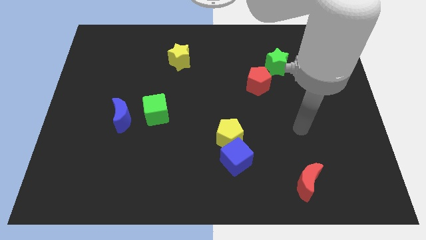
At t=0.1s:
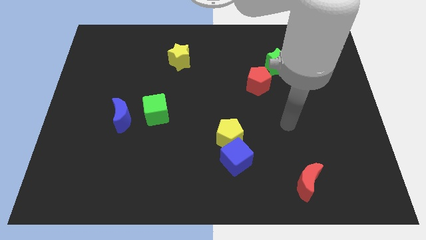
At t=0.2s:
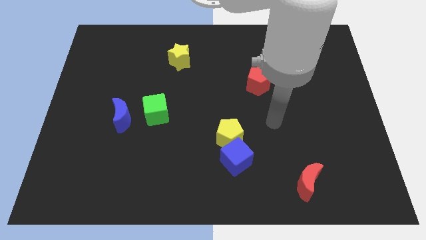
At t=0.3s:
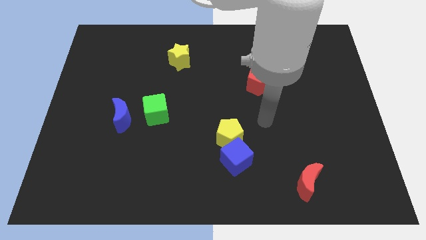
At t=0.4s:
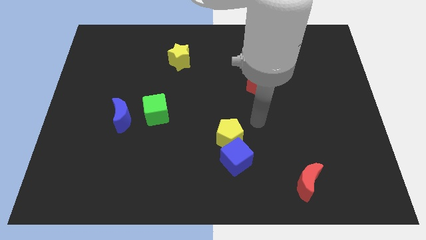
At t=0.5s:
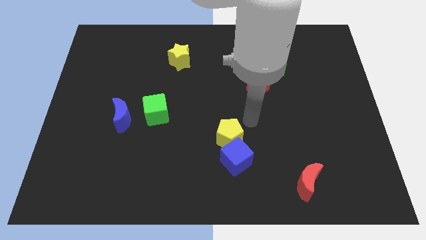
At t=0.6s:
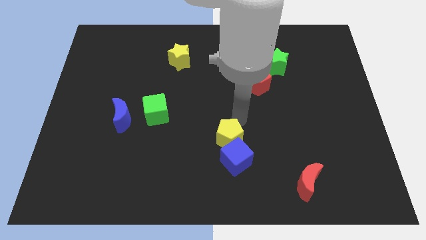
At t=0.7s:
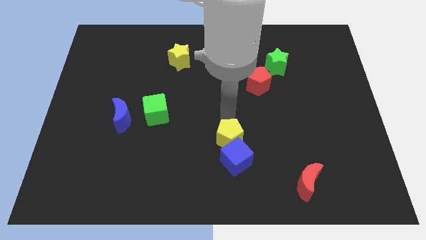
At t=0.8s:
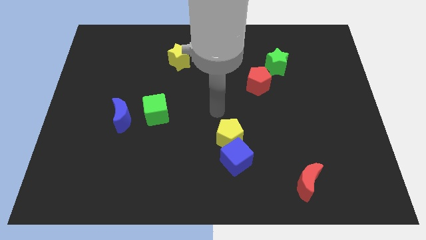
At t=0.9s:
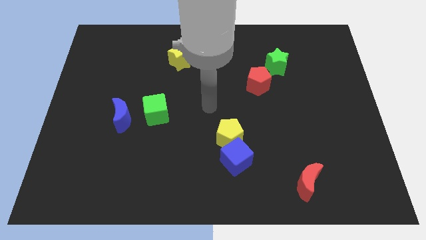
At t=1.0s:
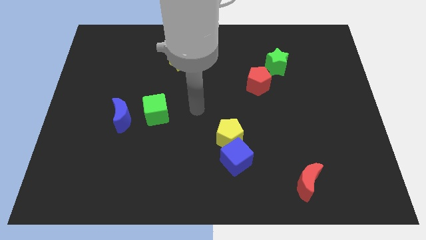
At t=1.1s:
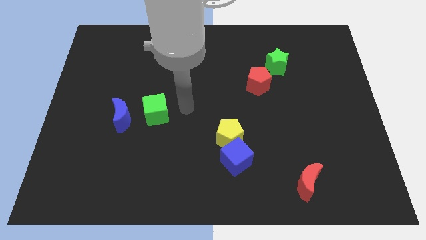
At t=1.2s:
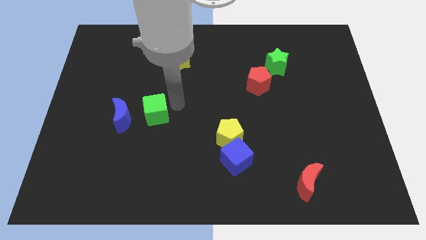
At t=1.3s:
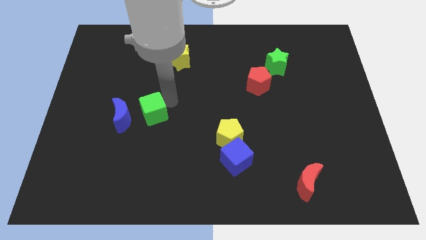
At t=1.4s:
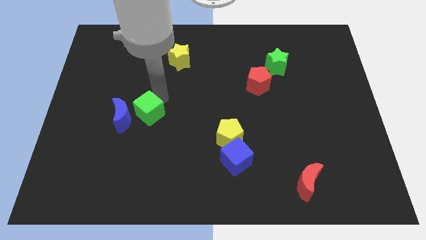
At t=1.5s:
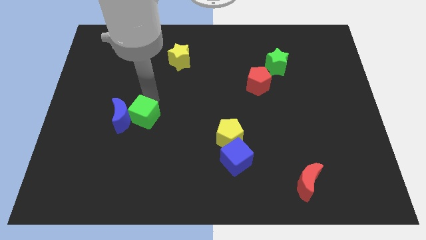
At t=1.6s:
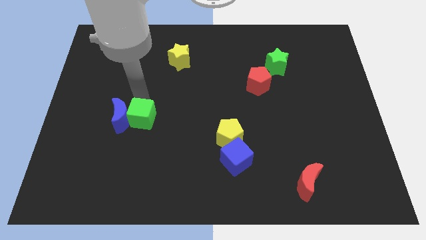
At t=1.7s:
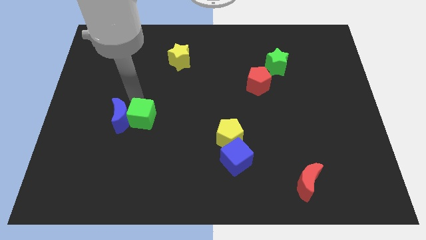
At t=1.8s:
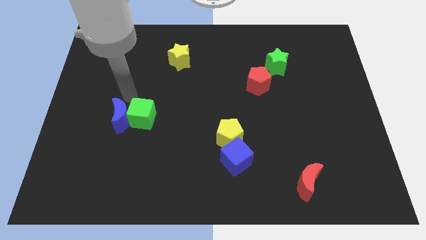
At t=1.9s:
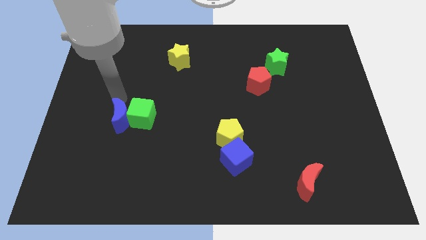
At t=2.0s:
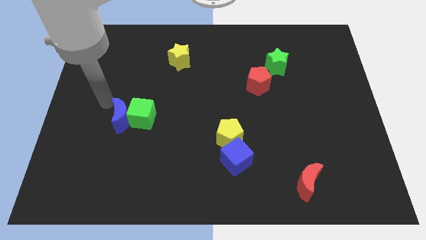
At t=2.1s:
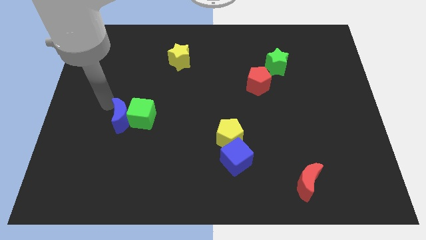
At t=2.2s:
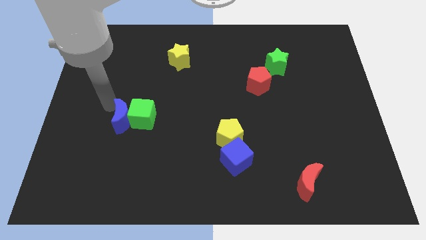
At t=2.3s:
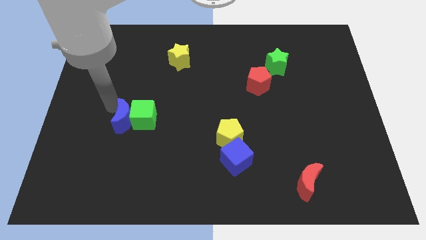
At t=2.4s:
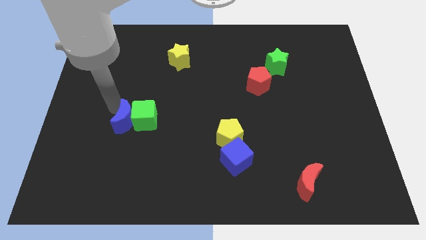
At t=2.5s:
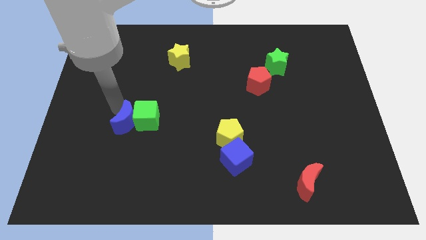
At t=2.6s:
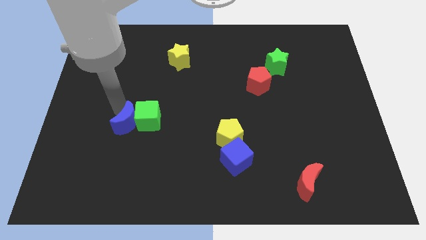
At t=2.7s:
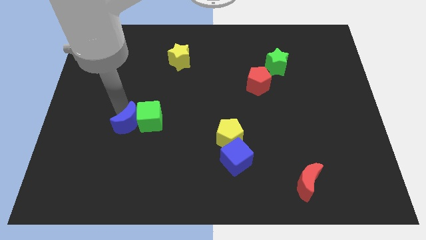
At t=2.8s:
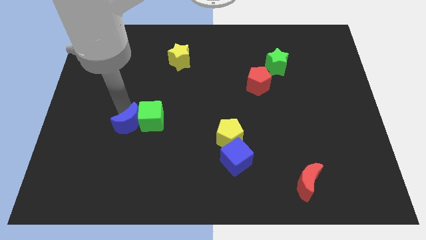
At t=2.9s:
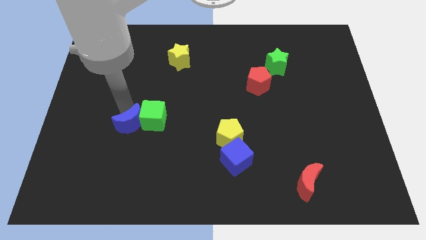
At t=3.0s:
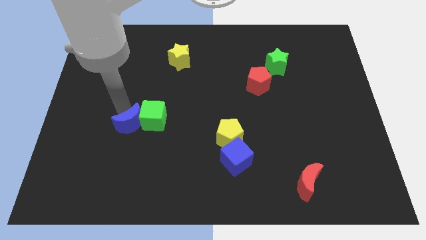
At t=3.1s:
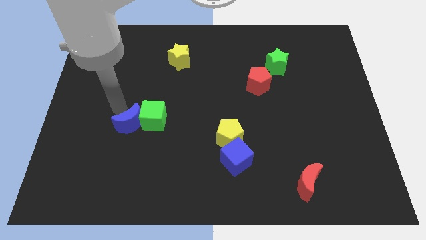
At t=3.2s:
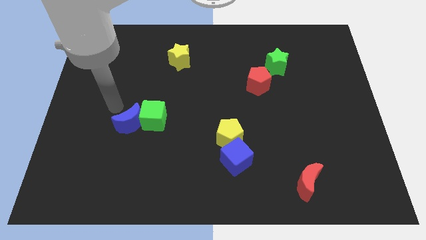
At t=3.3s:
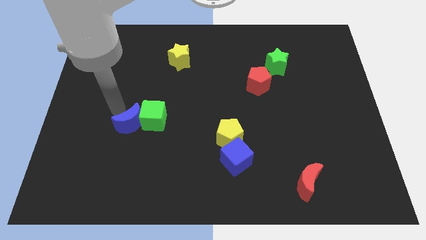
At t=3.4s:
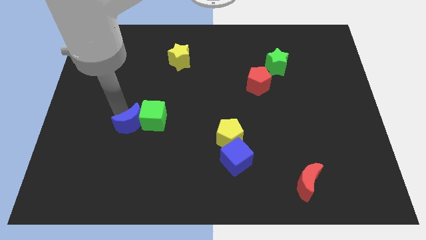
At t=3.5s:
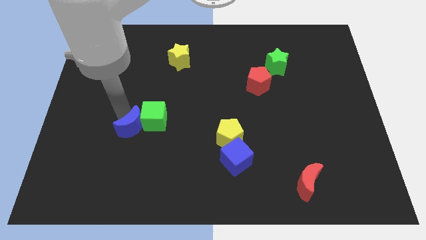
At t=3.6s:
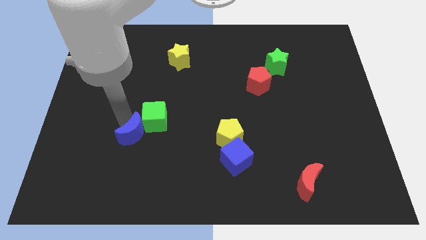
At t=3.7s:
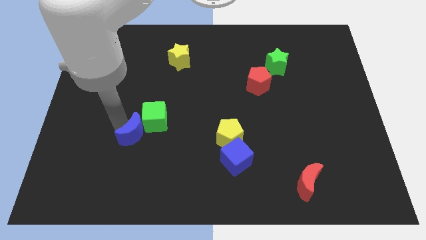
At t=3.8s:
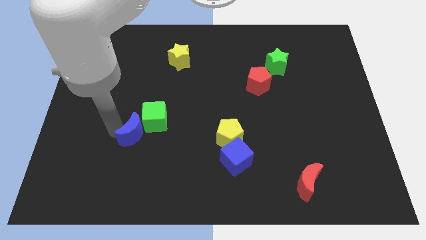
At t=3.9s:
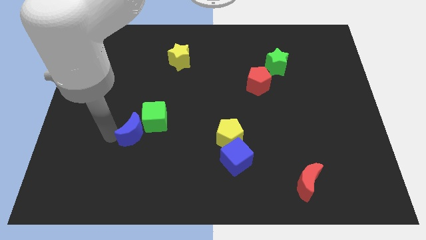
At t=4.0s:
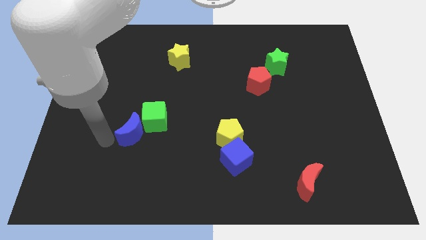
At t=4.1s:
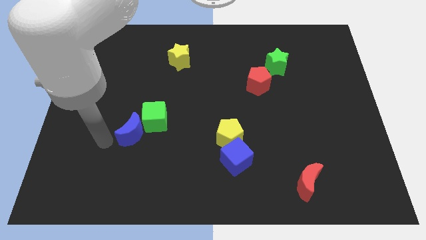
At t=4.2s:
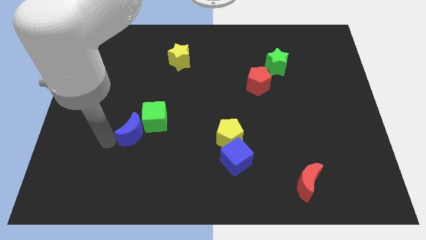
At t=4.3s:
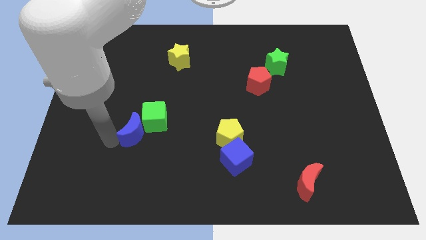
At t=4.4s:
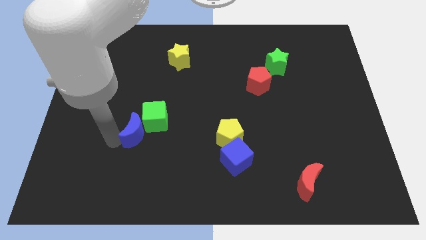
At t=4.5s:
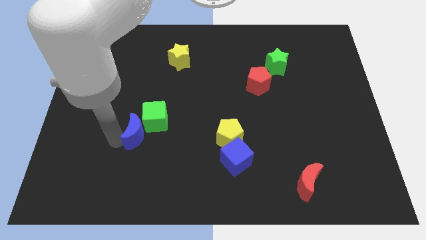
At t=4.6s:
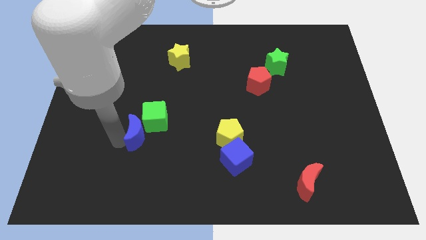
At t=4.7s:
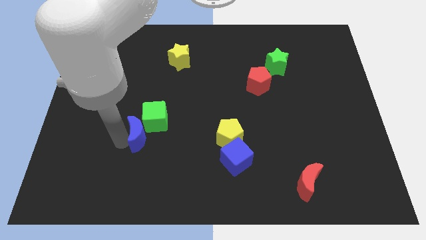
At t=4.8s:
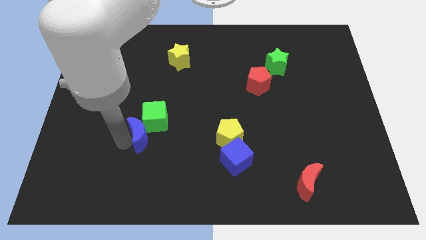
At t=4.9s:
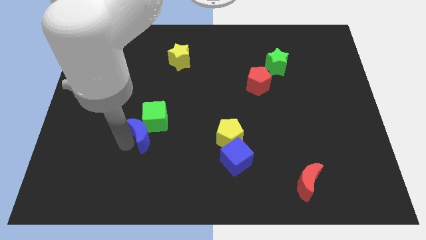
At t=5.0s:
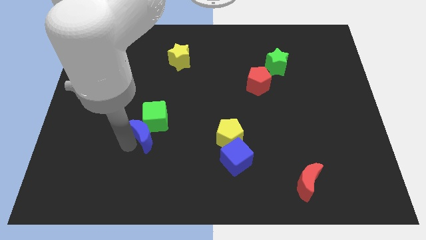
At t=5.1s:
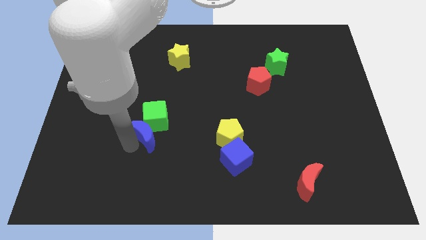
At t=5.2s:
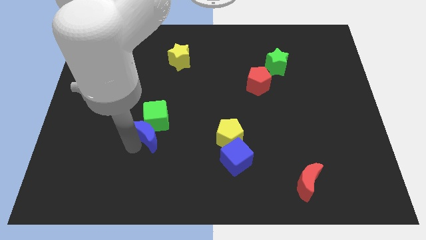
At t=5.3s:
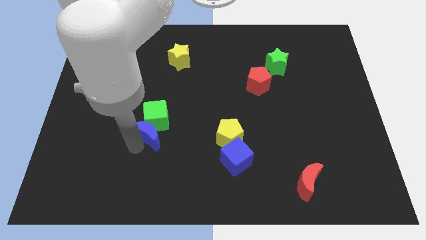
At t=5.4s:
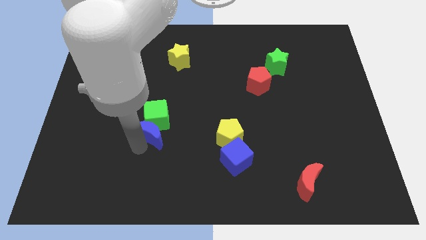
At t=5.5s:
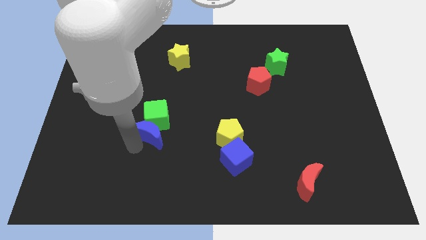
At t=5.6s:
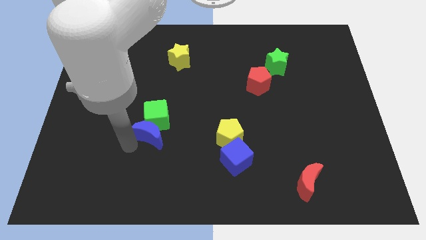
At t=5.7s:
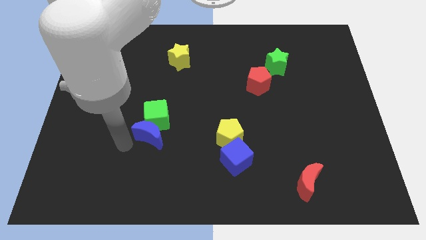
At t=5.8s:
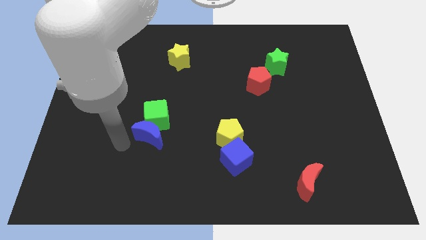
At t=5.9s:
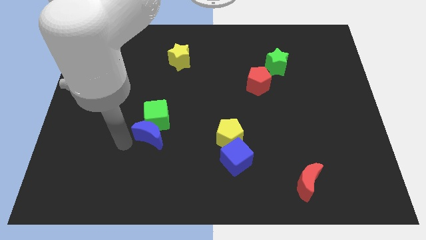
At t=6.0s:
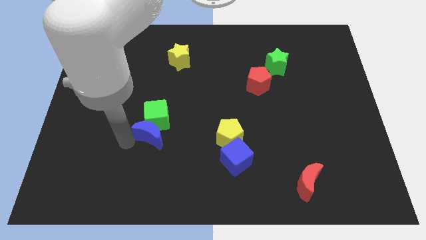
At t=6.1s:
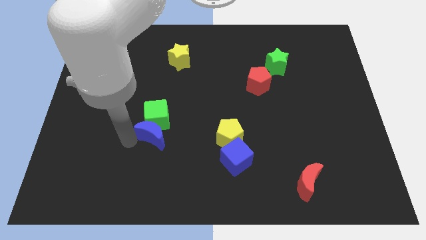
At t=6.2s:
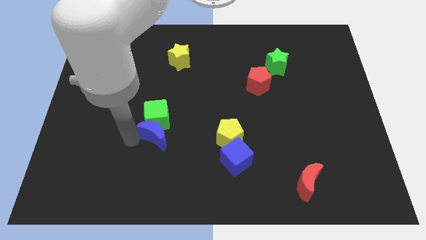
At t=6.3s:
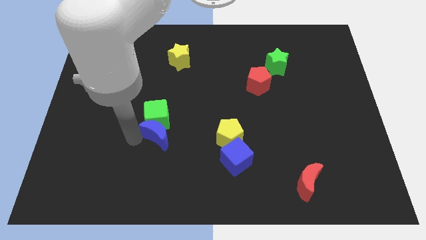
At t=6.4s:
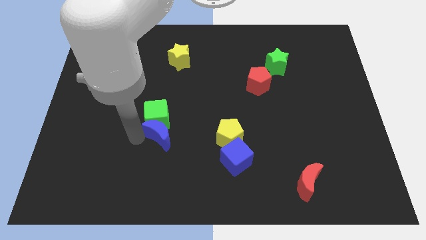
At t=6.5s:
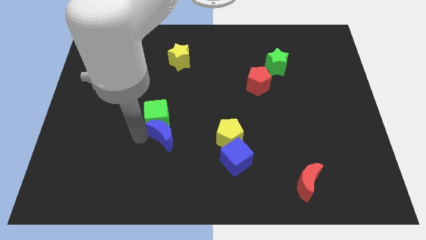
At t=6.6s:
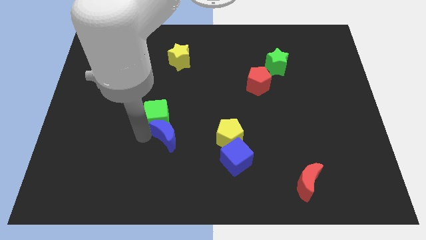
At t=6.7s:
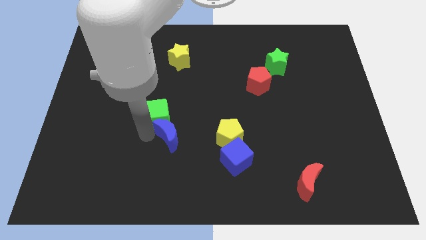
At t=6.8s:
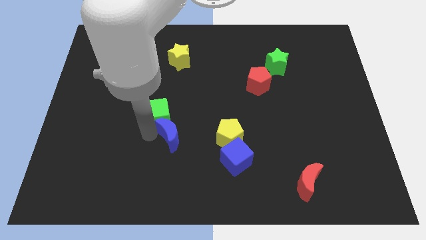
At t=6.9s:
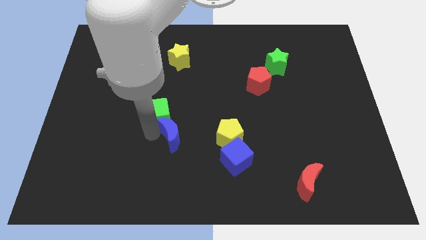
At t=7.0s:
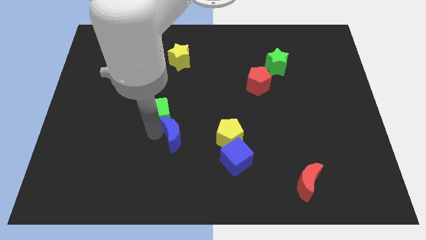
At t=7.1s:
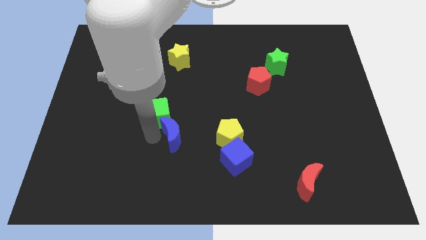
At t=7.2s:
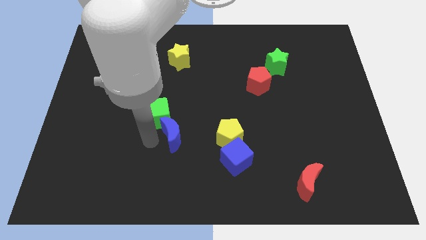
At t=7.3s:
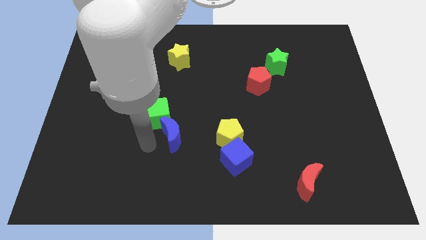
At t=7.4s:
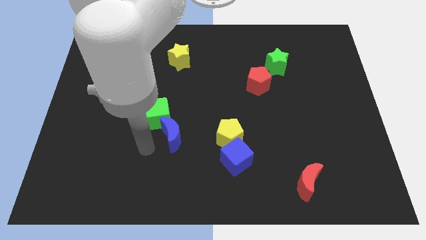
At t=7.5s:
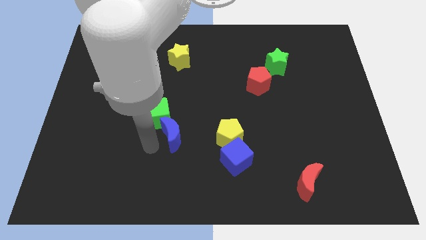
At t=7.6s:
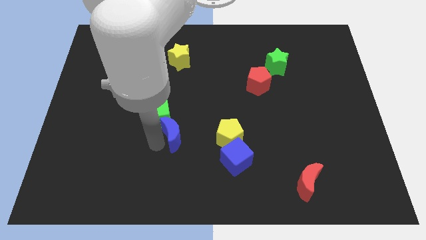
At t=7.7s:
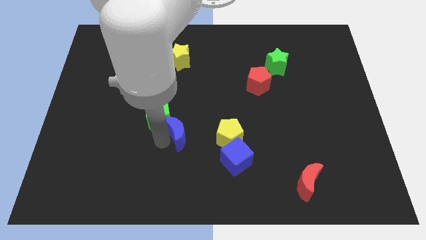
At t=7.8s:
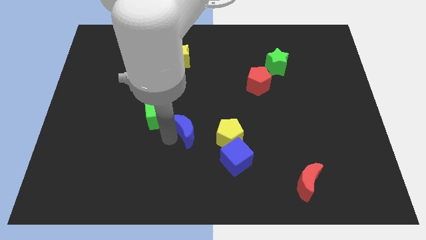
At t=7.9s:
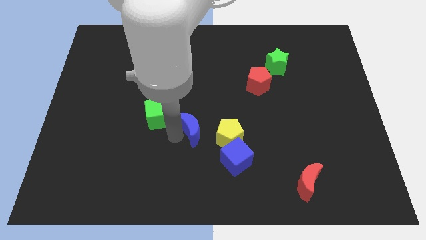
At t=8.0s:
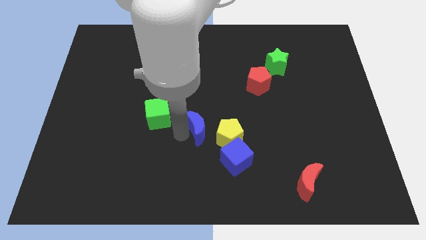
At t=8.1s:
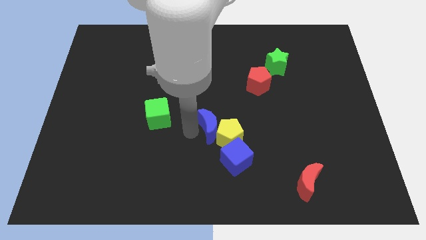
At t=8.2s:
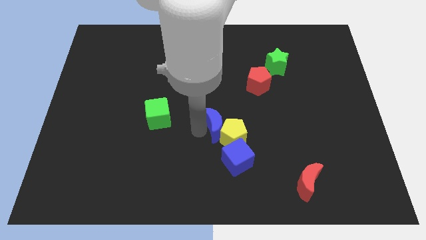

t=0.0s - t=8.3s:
move the blue moon to the top of the blue cube
